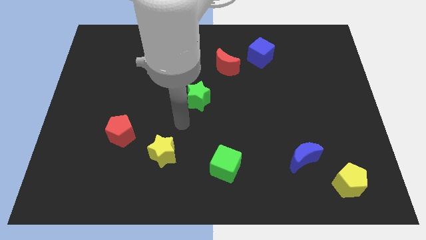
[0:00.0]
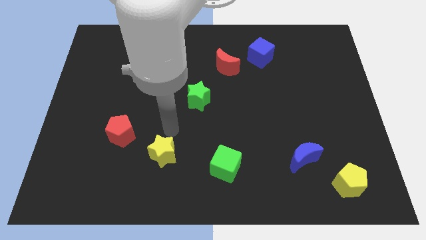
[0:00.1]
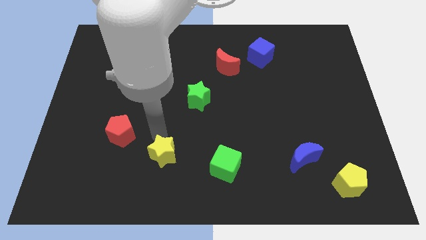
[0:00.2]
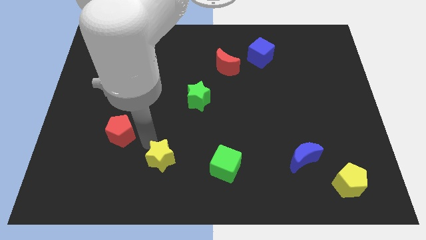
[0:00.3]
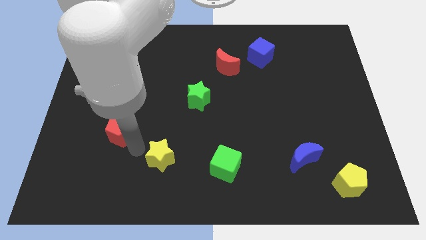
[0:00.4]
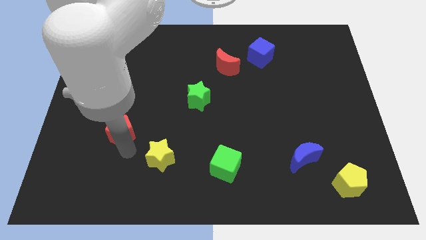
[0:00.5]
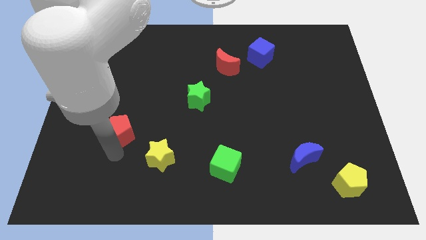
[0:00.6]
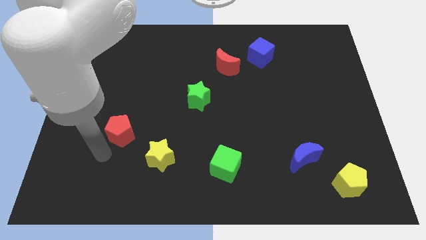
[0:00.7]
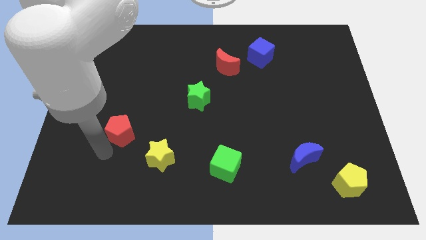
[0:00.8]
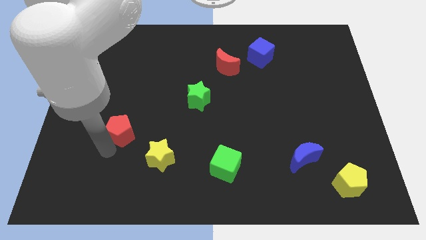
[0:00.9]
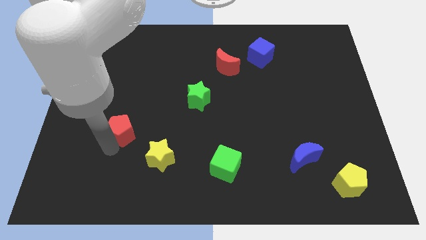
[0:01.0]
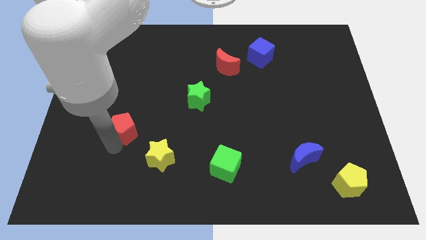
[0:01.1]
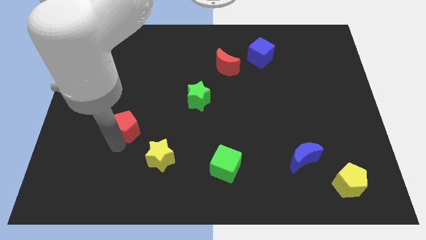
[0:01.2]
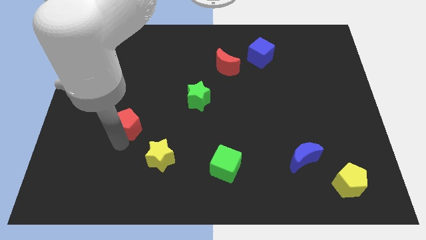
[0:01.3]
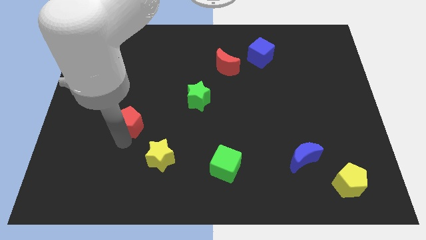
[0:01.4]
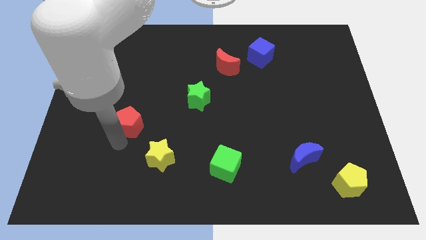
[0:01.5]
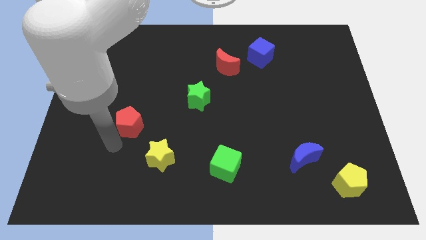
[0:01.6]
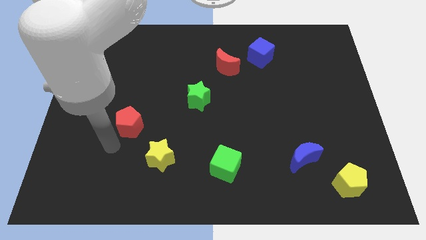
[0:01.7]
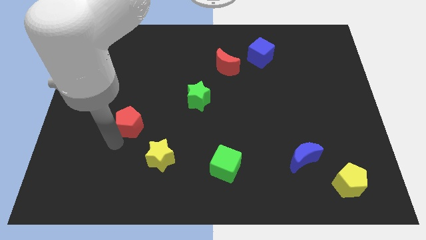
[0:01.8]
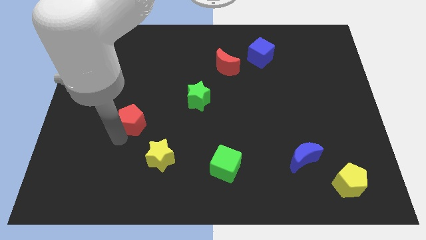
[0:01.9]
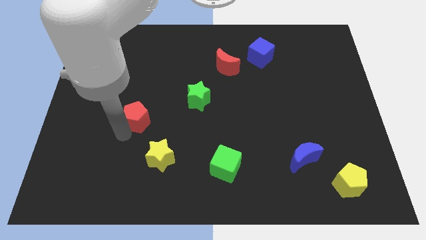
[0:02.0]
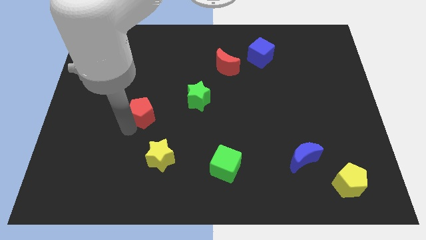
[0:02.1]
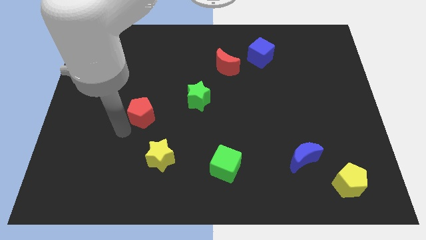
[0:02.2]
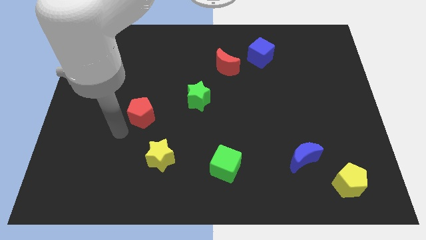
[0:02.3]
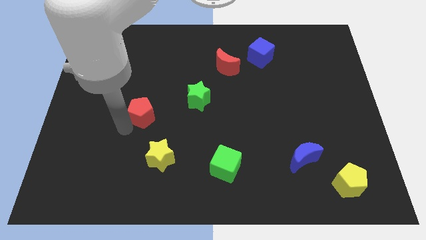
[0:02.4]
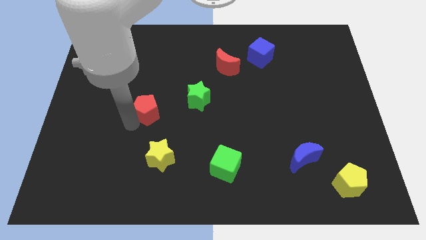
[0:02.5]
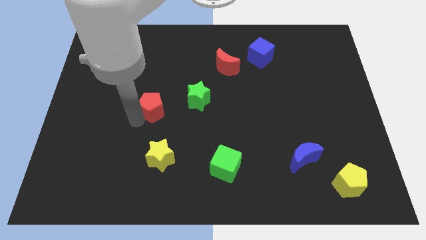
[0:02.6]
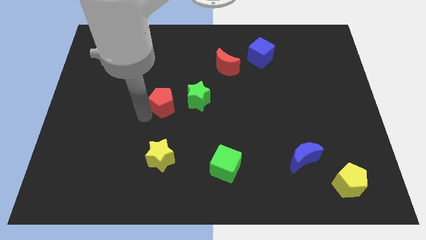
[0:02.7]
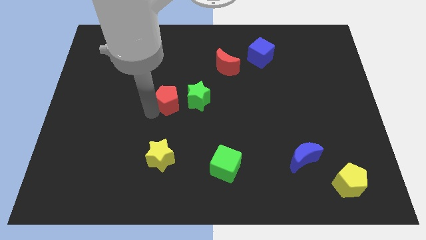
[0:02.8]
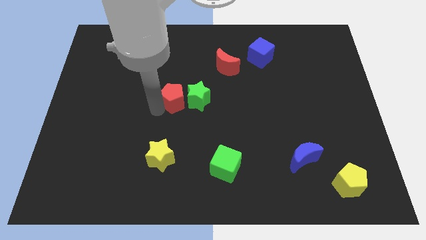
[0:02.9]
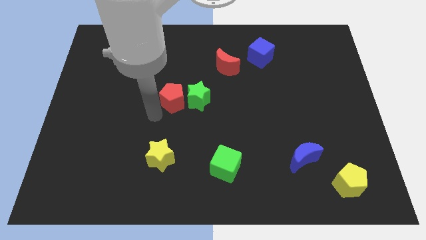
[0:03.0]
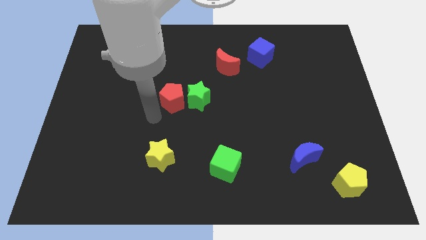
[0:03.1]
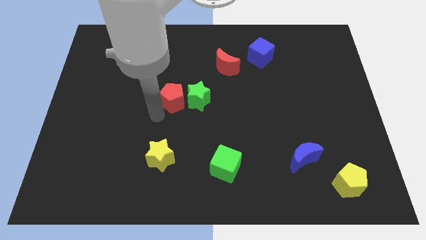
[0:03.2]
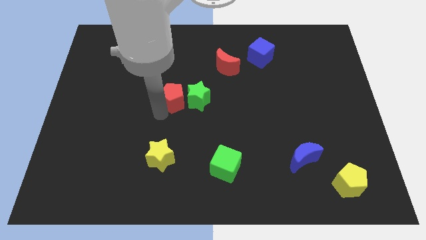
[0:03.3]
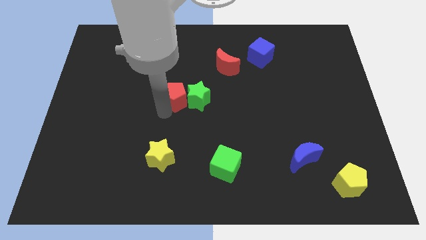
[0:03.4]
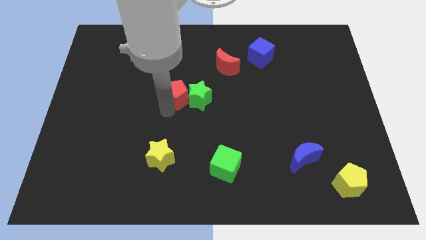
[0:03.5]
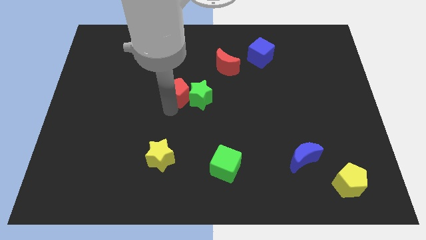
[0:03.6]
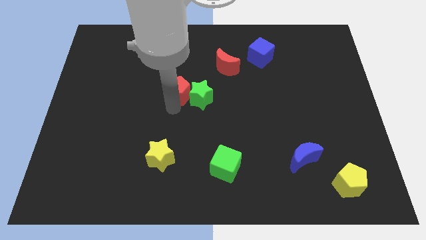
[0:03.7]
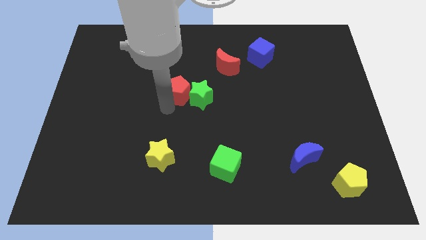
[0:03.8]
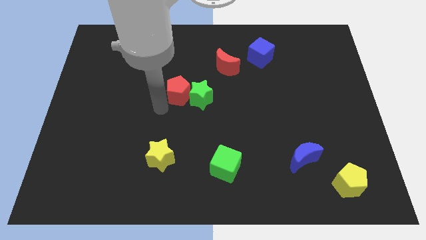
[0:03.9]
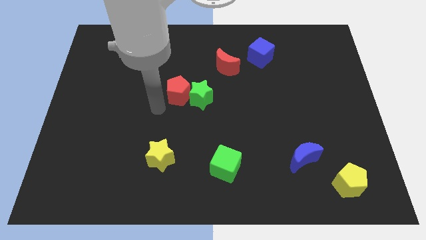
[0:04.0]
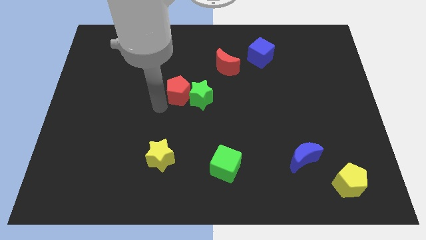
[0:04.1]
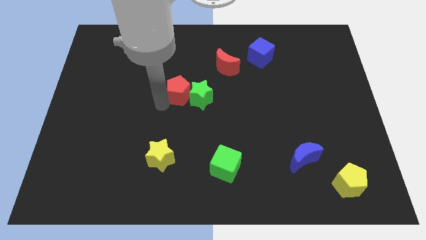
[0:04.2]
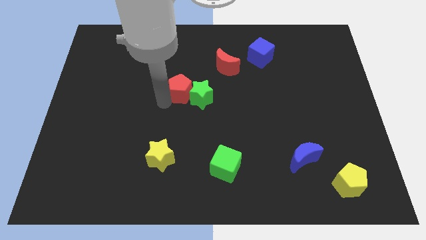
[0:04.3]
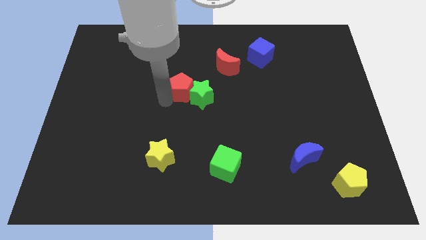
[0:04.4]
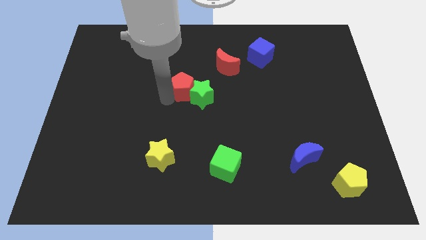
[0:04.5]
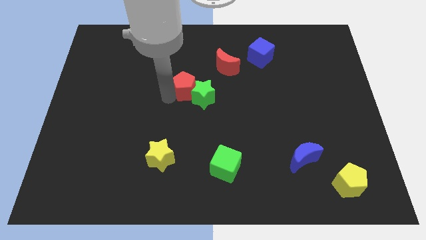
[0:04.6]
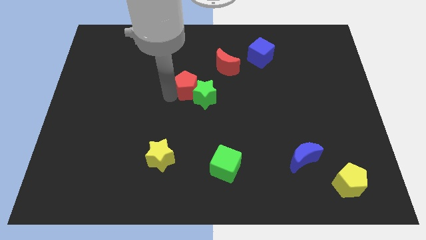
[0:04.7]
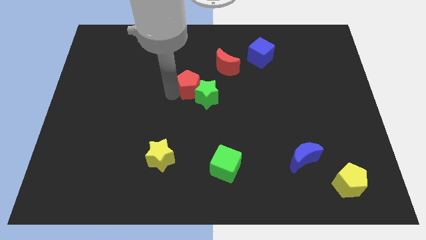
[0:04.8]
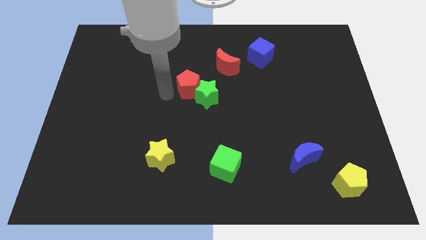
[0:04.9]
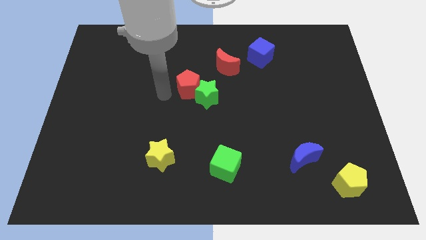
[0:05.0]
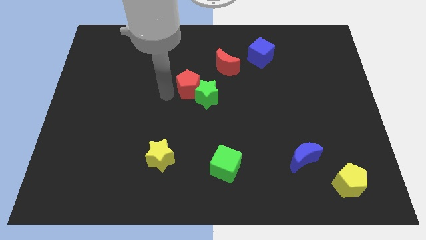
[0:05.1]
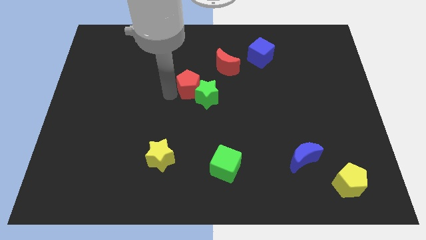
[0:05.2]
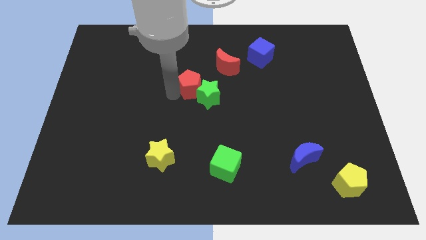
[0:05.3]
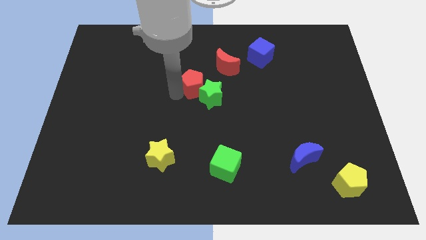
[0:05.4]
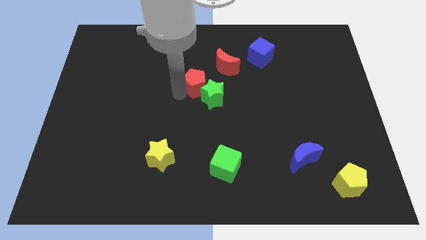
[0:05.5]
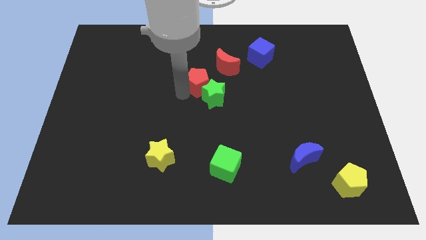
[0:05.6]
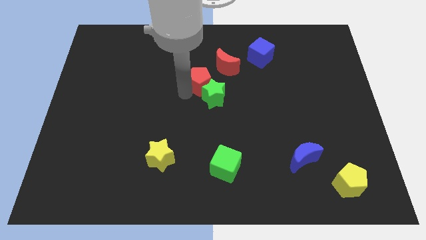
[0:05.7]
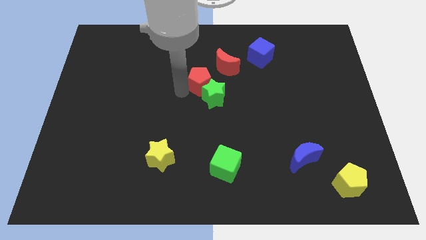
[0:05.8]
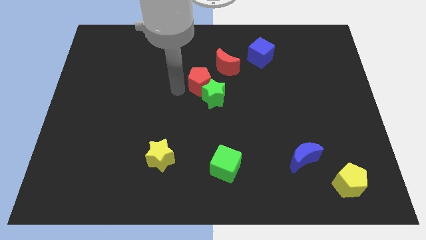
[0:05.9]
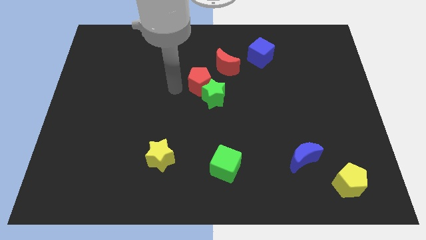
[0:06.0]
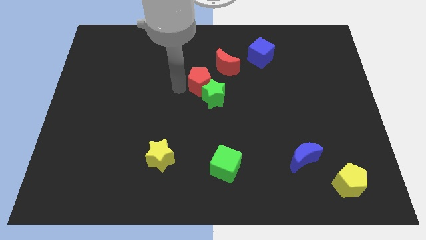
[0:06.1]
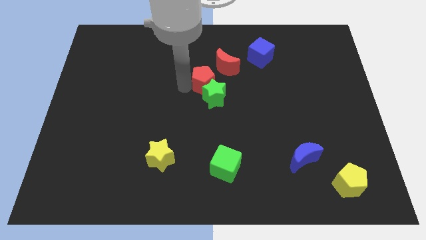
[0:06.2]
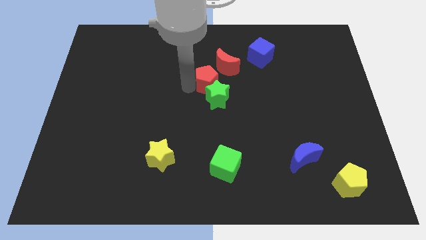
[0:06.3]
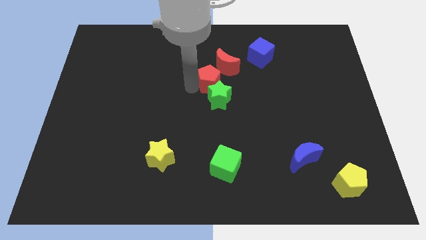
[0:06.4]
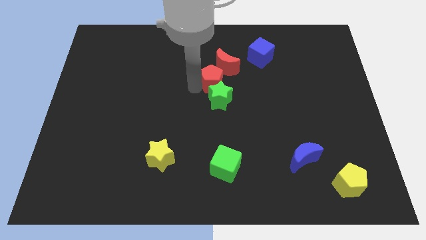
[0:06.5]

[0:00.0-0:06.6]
move the red pentagon close to the red moon

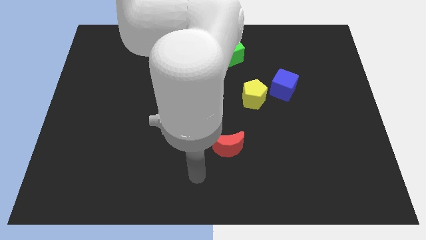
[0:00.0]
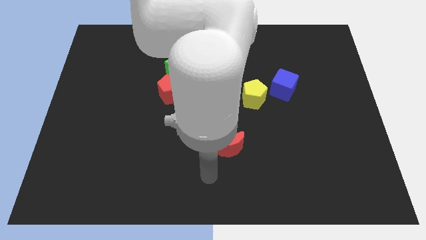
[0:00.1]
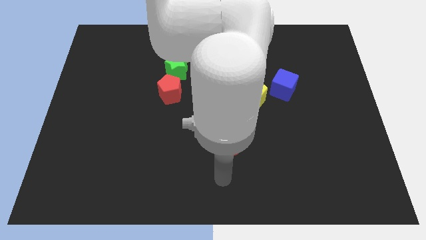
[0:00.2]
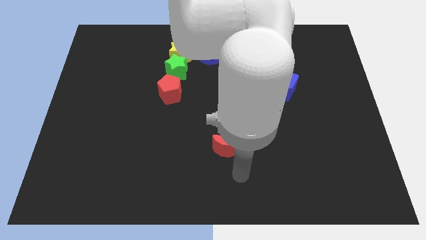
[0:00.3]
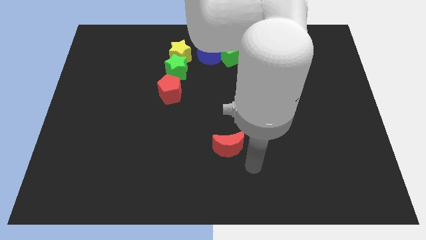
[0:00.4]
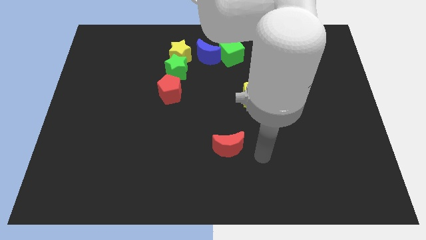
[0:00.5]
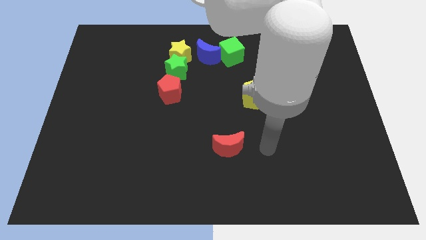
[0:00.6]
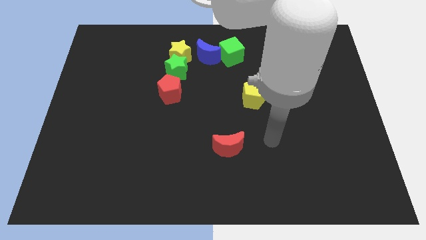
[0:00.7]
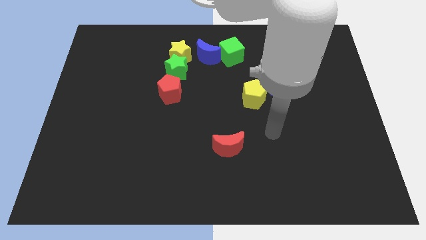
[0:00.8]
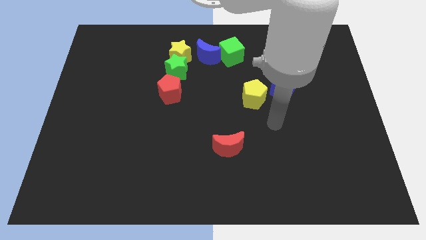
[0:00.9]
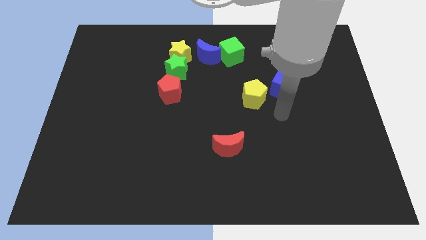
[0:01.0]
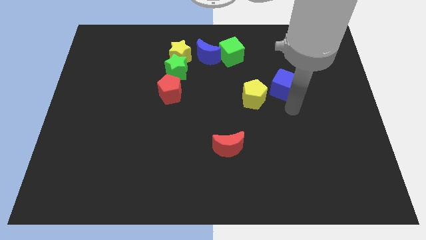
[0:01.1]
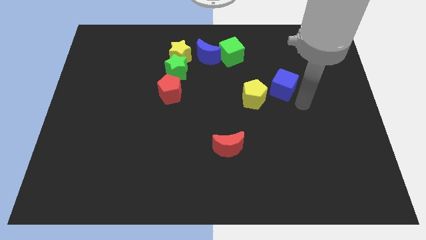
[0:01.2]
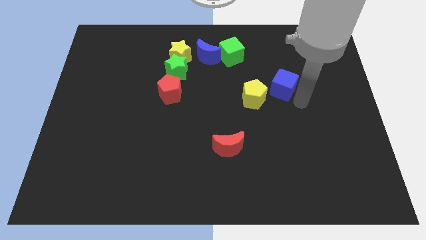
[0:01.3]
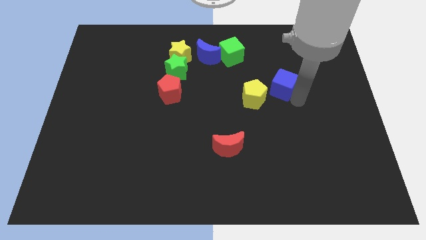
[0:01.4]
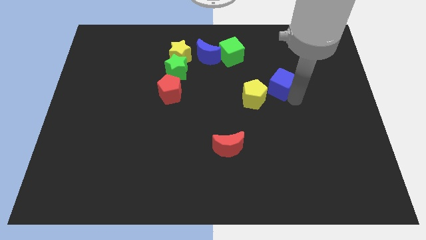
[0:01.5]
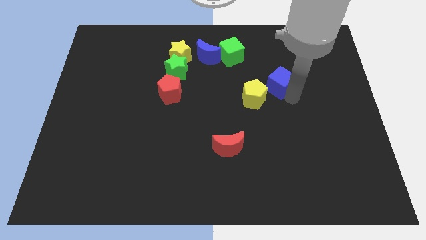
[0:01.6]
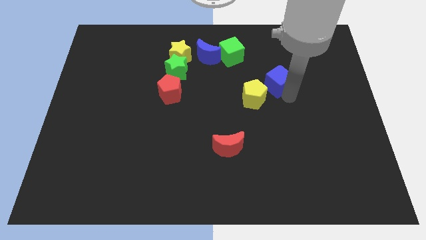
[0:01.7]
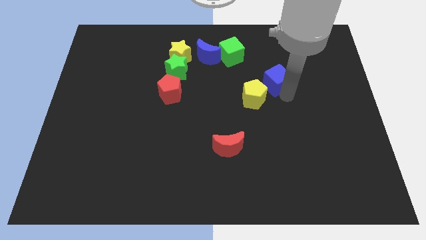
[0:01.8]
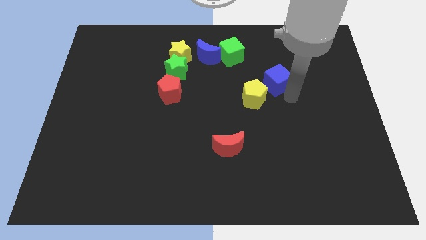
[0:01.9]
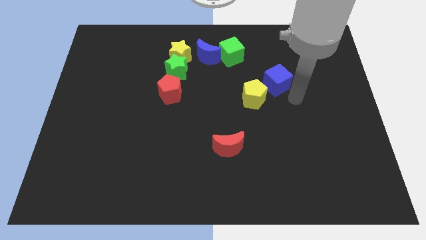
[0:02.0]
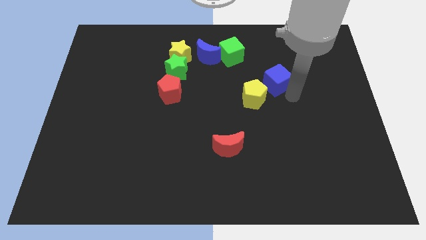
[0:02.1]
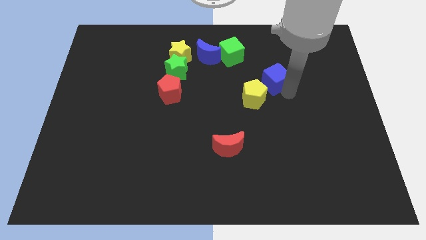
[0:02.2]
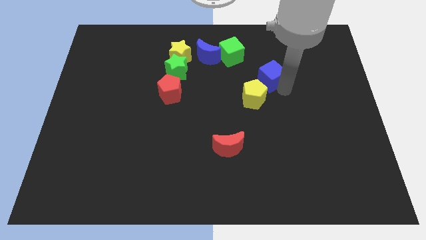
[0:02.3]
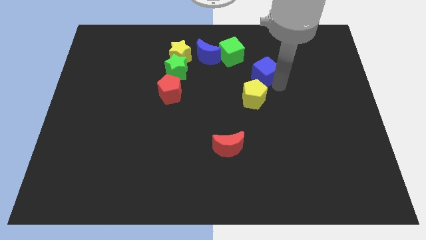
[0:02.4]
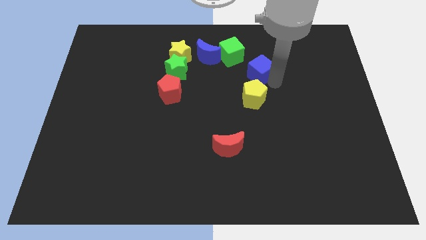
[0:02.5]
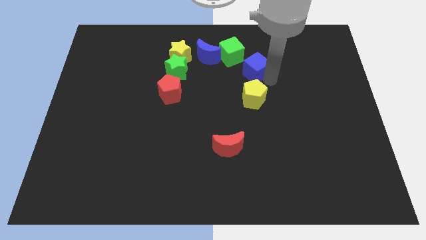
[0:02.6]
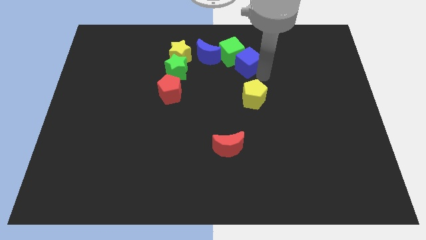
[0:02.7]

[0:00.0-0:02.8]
push the blue cube next to the green cube
